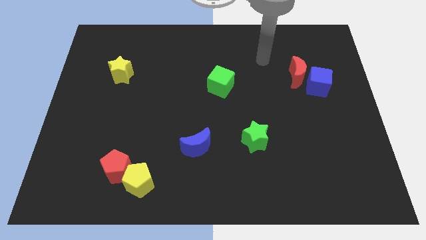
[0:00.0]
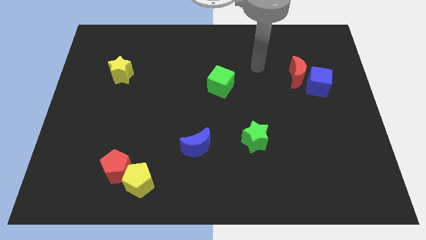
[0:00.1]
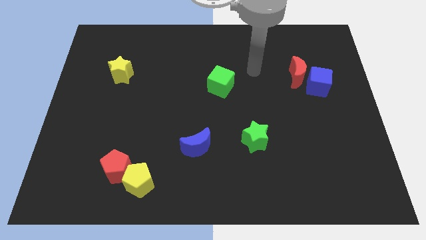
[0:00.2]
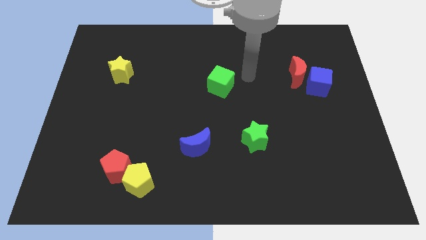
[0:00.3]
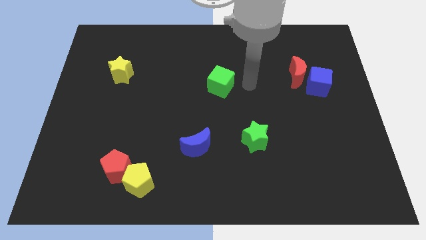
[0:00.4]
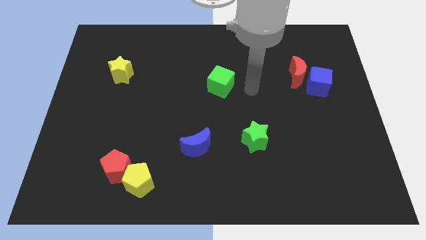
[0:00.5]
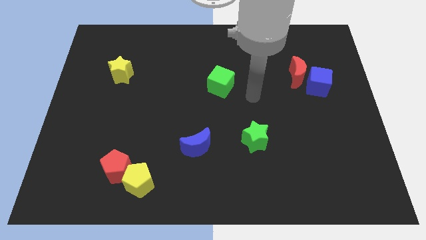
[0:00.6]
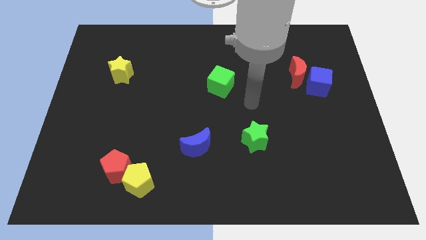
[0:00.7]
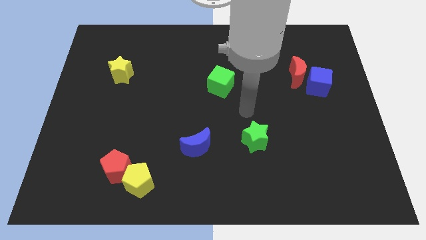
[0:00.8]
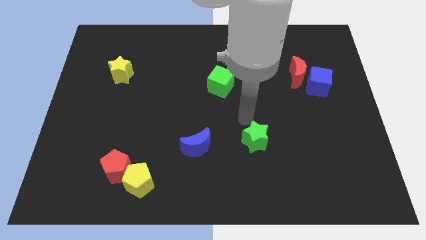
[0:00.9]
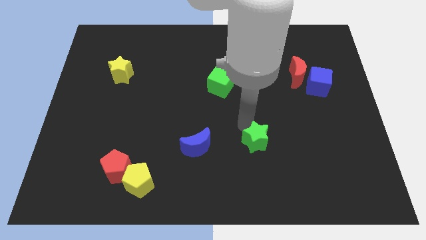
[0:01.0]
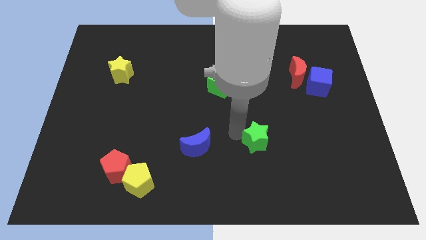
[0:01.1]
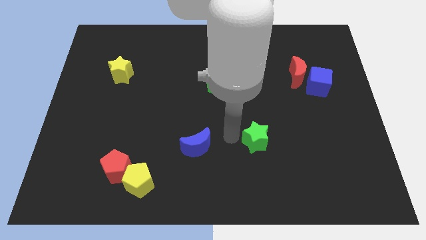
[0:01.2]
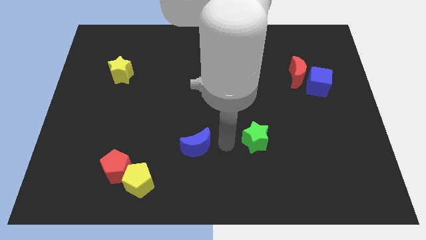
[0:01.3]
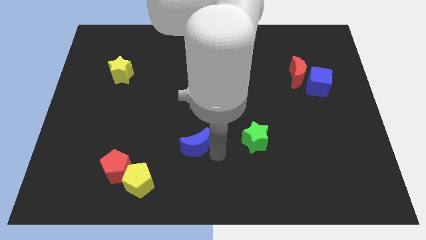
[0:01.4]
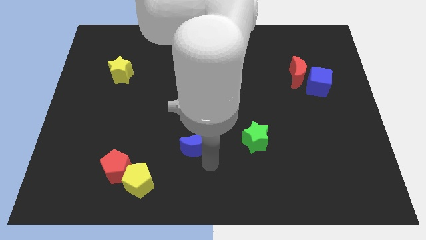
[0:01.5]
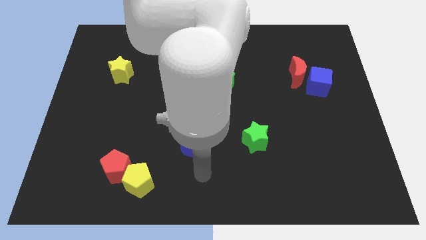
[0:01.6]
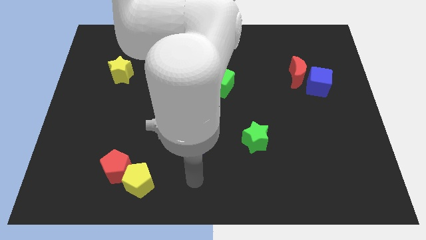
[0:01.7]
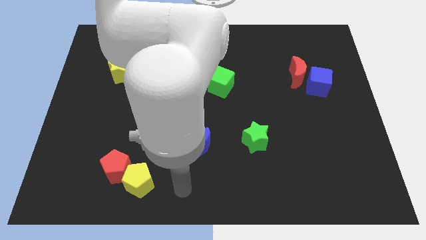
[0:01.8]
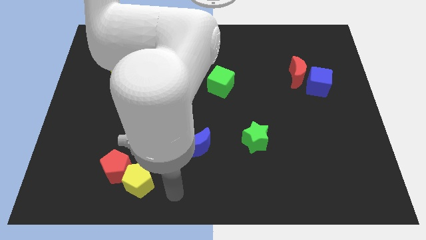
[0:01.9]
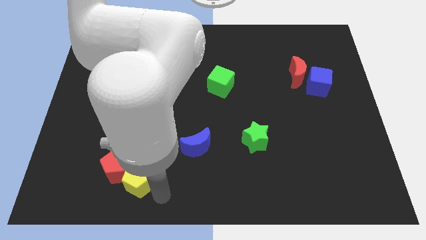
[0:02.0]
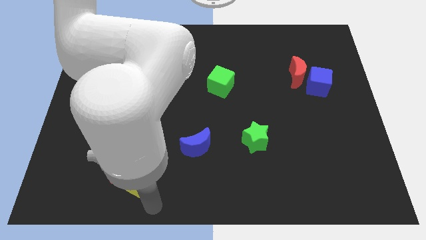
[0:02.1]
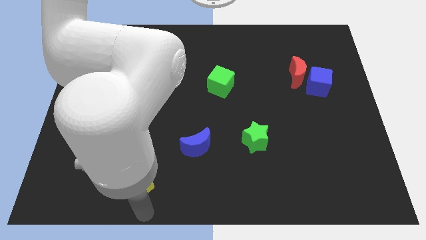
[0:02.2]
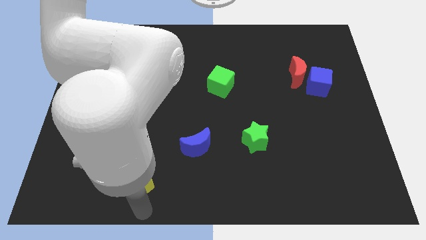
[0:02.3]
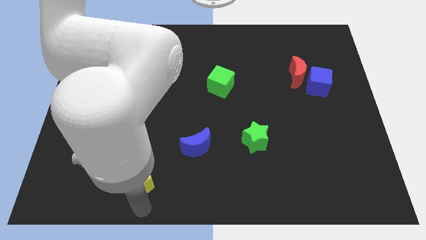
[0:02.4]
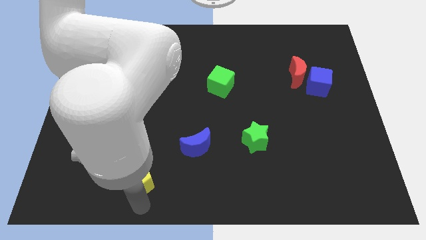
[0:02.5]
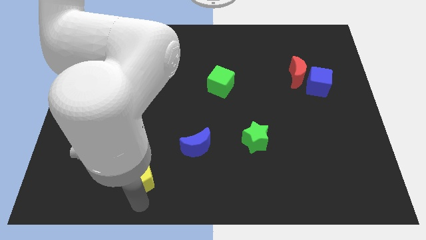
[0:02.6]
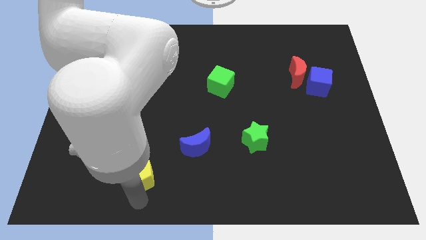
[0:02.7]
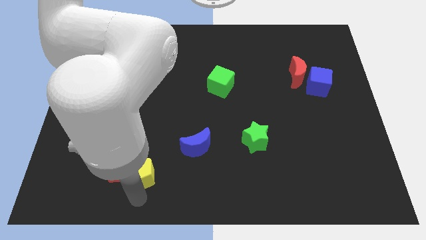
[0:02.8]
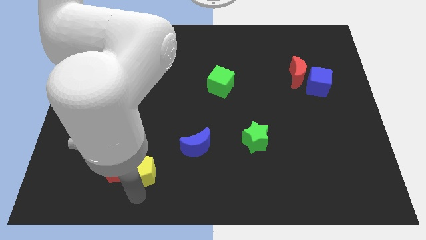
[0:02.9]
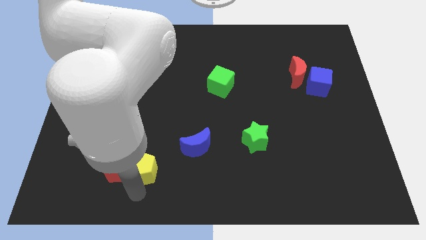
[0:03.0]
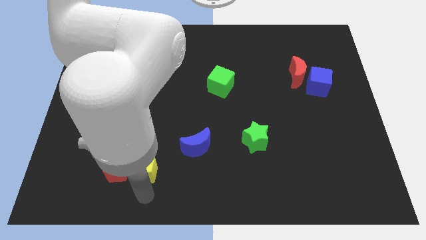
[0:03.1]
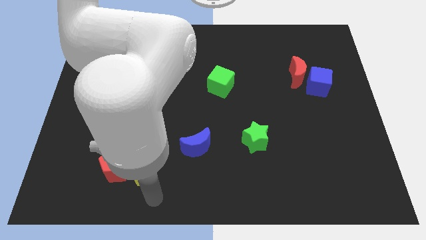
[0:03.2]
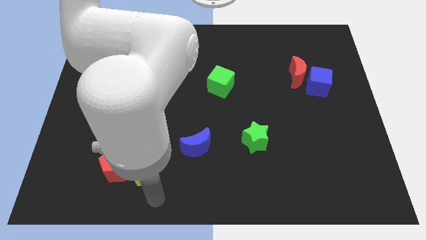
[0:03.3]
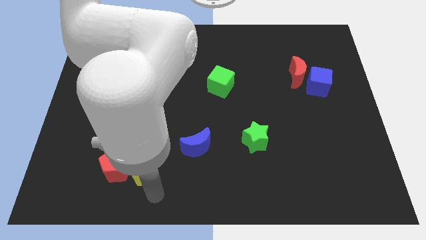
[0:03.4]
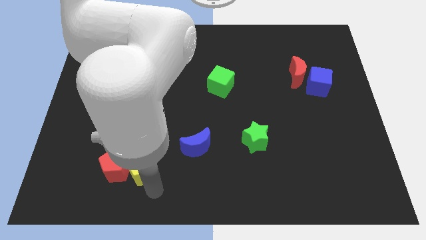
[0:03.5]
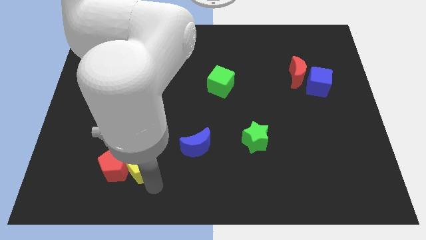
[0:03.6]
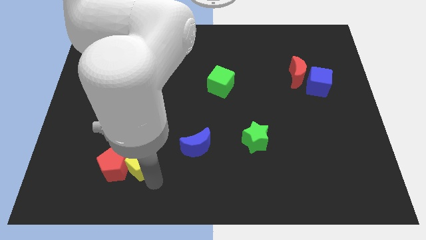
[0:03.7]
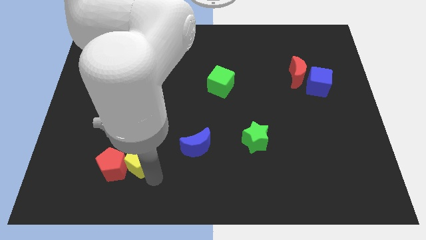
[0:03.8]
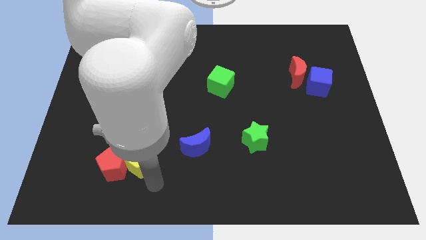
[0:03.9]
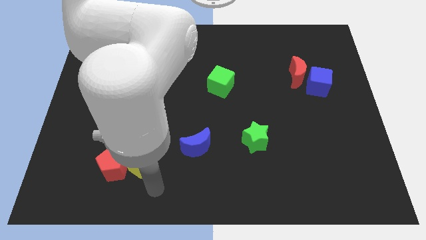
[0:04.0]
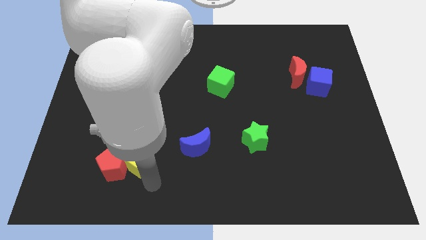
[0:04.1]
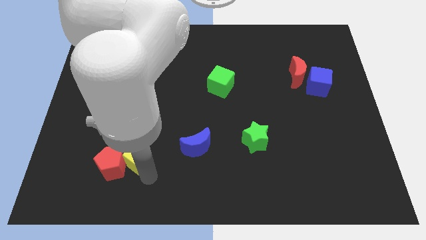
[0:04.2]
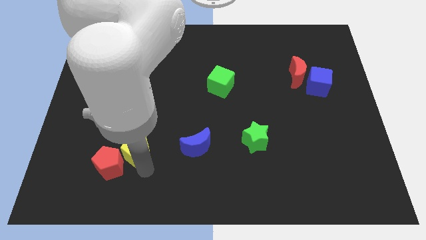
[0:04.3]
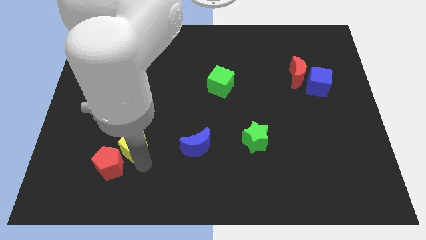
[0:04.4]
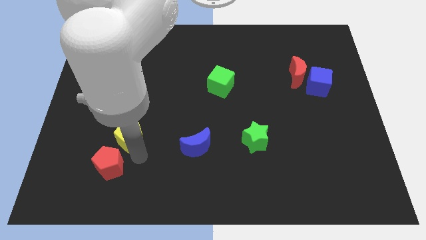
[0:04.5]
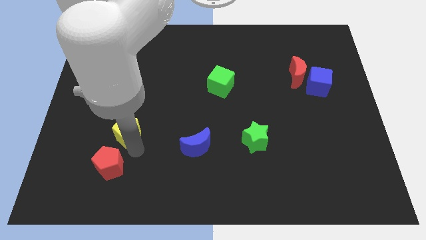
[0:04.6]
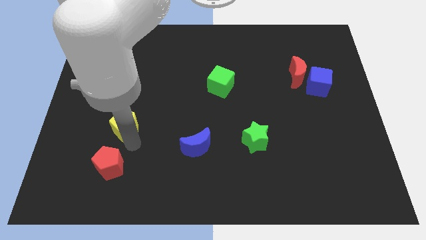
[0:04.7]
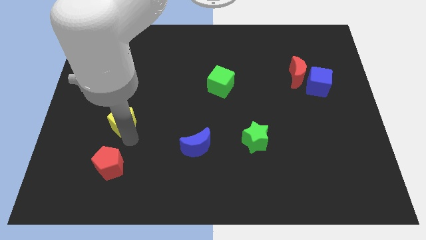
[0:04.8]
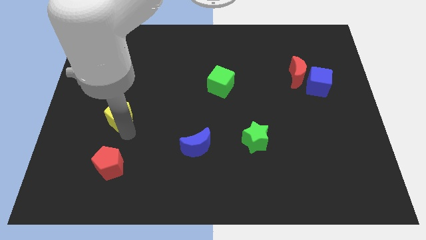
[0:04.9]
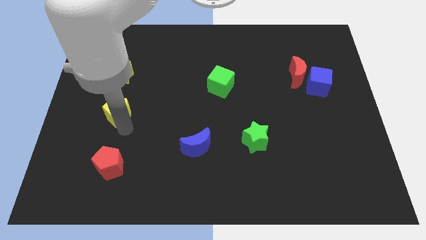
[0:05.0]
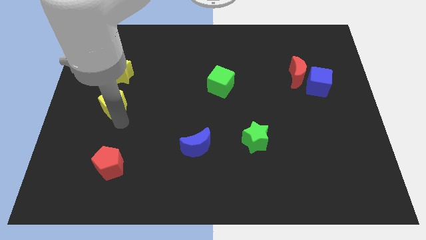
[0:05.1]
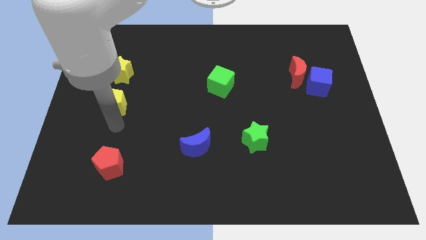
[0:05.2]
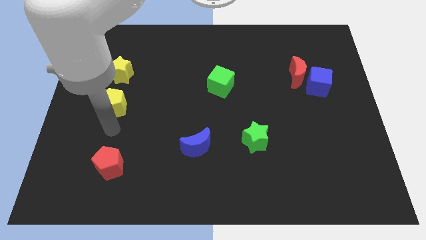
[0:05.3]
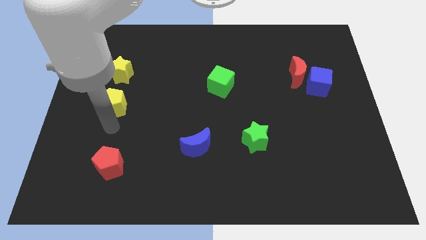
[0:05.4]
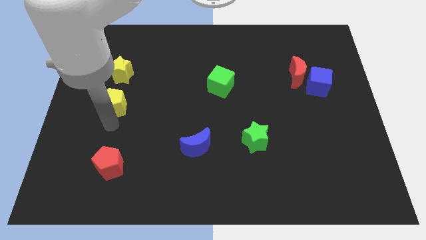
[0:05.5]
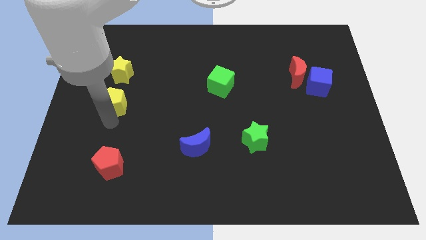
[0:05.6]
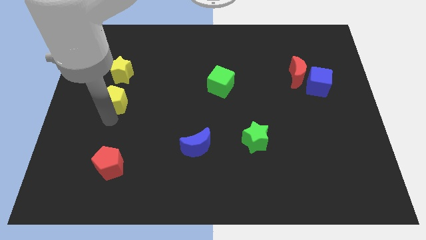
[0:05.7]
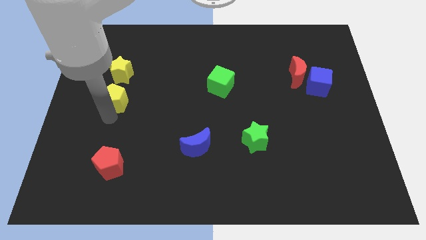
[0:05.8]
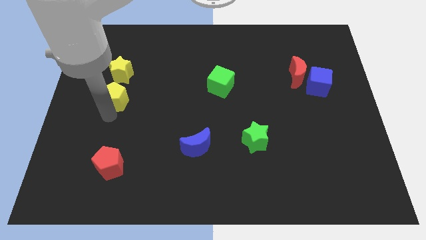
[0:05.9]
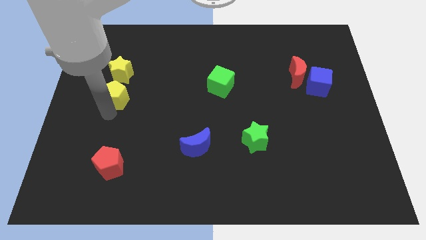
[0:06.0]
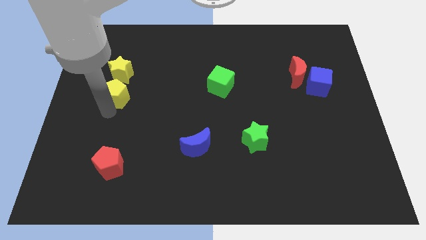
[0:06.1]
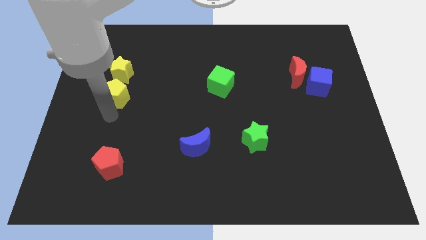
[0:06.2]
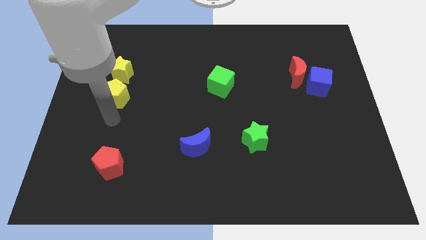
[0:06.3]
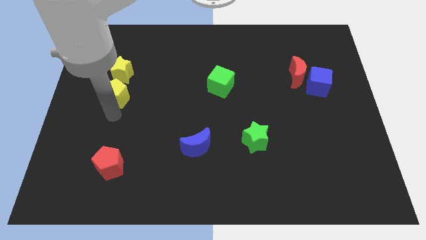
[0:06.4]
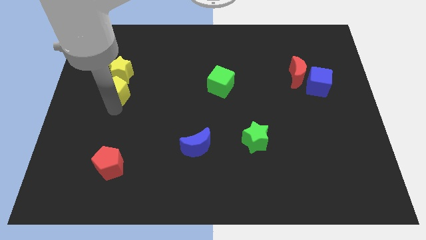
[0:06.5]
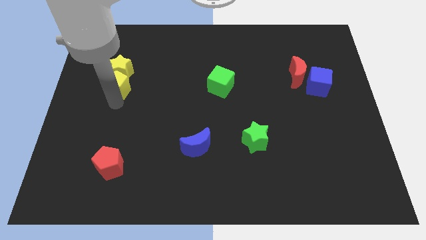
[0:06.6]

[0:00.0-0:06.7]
move the yellow pentagon close to the yellow star
